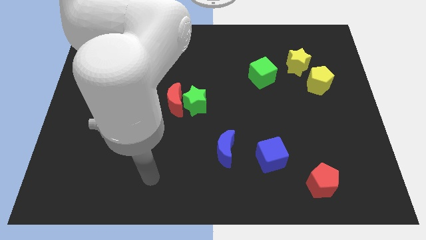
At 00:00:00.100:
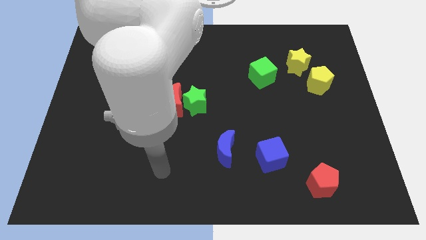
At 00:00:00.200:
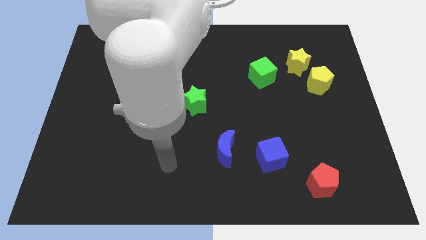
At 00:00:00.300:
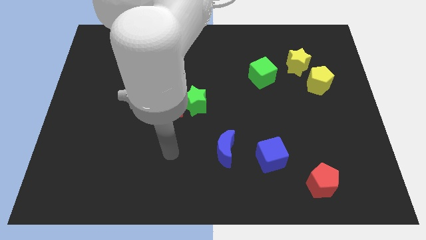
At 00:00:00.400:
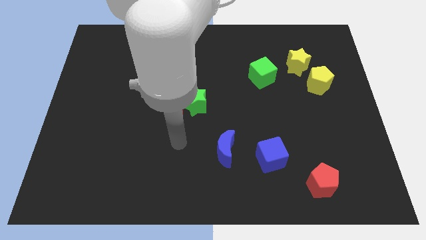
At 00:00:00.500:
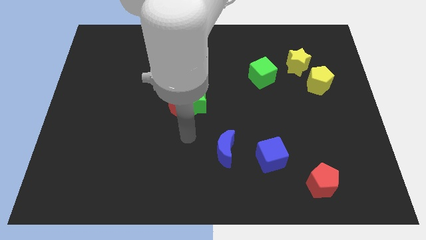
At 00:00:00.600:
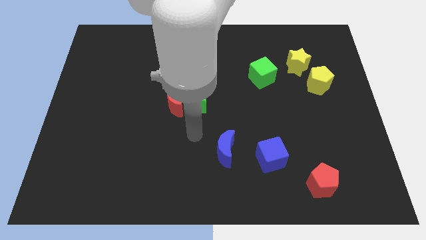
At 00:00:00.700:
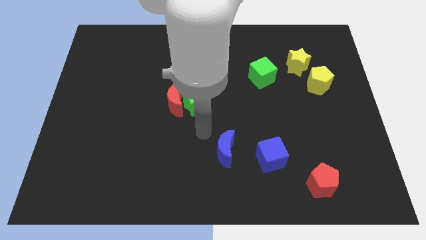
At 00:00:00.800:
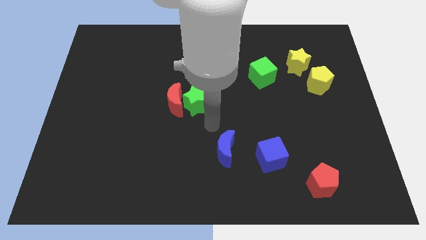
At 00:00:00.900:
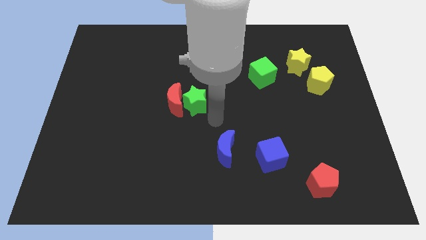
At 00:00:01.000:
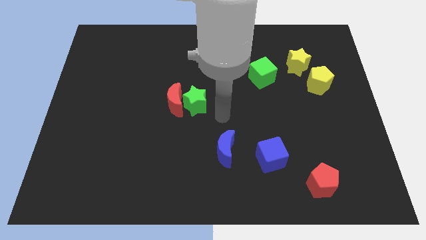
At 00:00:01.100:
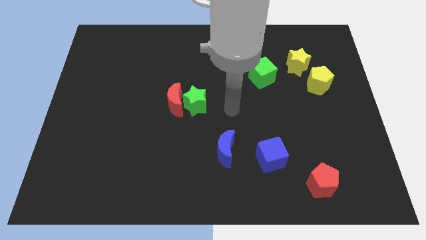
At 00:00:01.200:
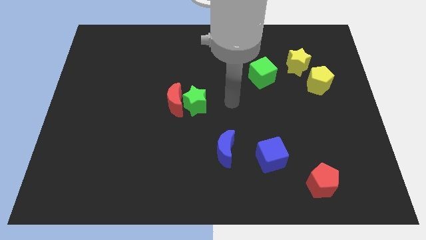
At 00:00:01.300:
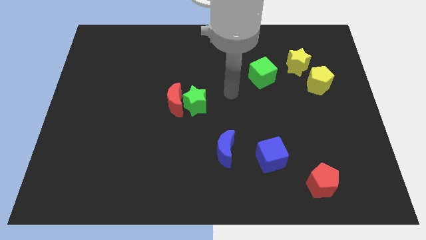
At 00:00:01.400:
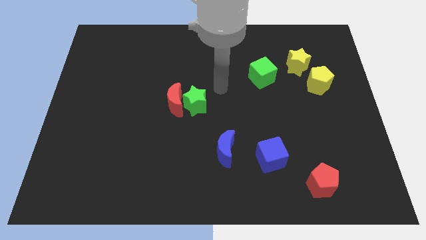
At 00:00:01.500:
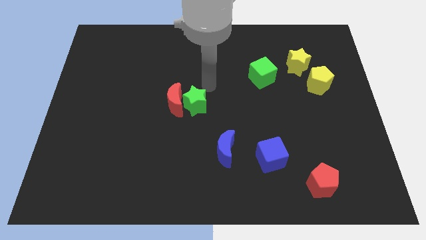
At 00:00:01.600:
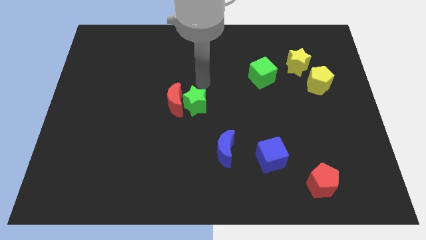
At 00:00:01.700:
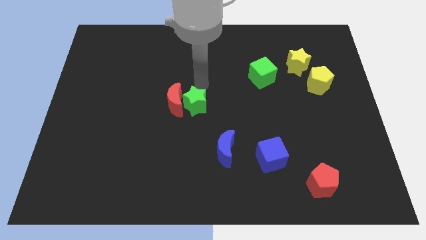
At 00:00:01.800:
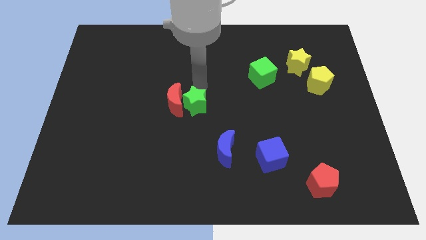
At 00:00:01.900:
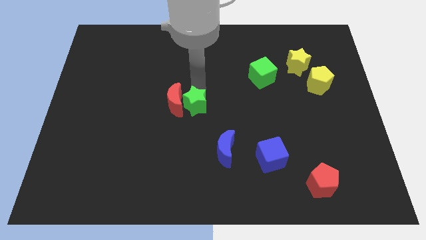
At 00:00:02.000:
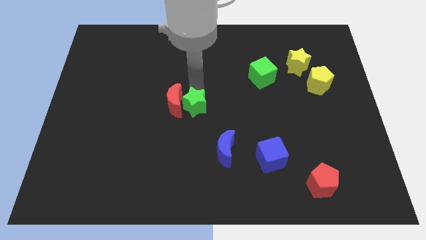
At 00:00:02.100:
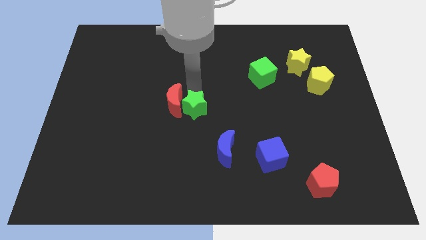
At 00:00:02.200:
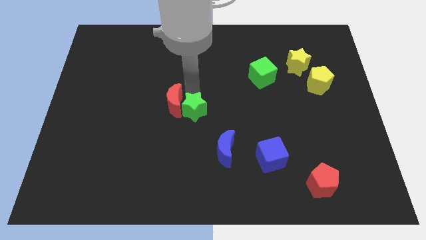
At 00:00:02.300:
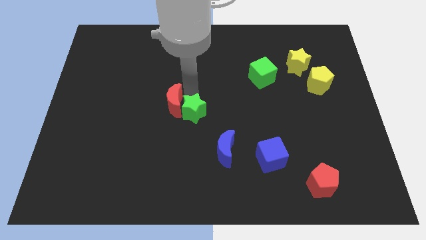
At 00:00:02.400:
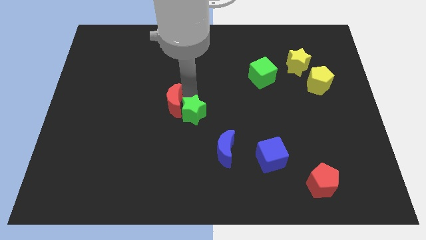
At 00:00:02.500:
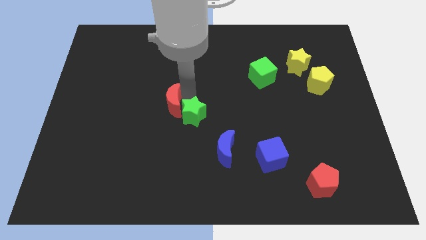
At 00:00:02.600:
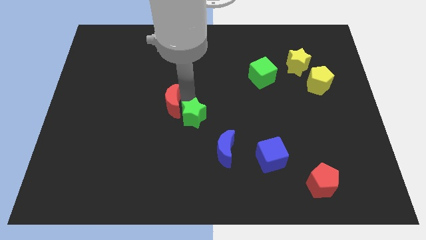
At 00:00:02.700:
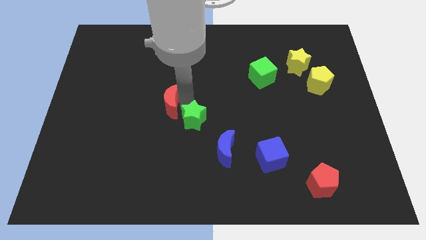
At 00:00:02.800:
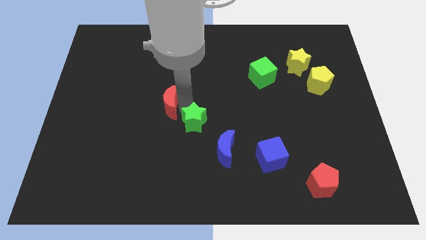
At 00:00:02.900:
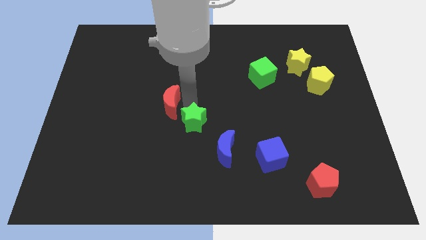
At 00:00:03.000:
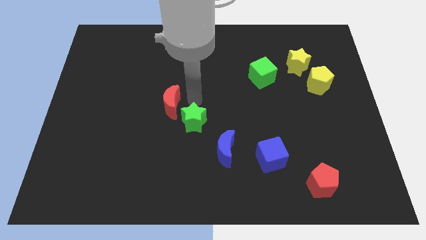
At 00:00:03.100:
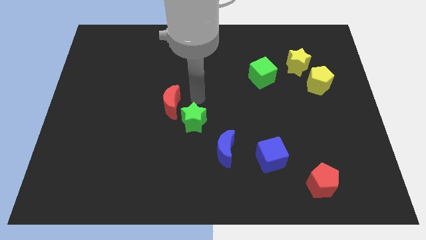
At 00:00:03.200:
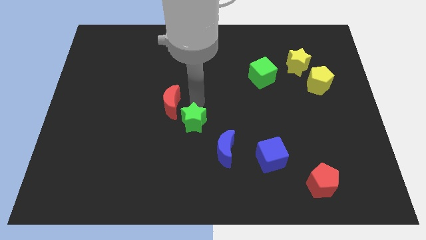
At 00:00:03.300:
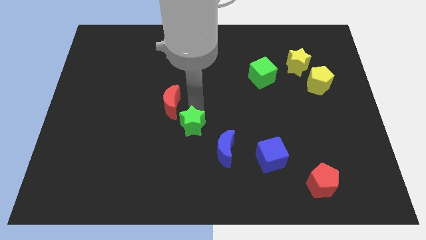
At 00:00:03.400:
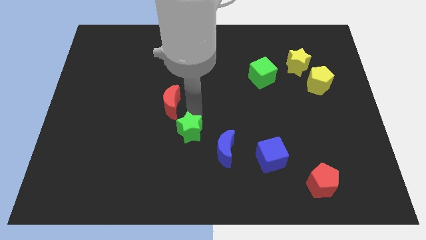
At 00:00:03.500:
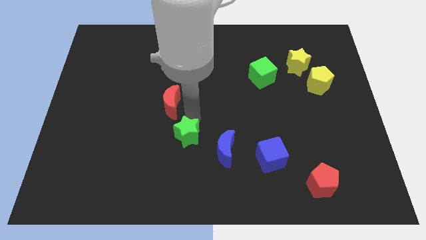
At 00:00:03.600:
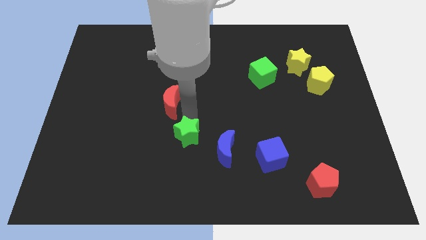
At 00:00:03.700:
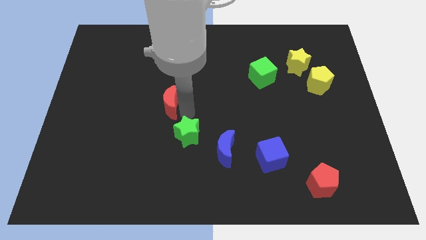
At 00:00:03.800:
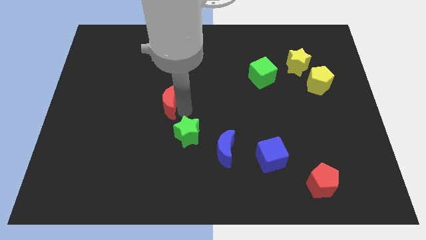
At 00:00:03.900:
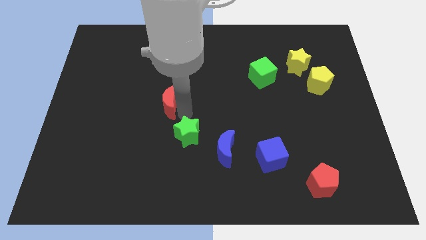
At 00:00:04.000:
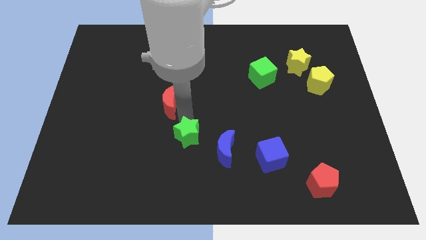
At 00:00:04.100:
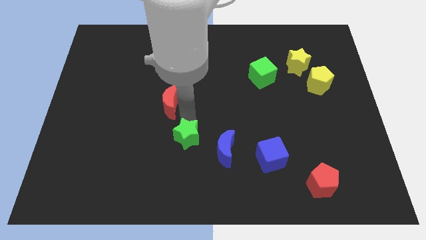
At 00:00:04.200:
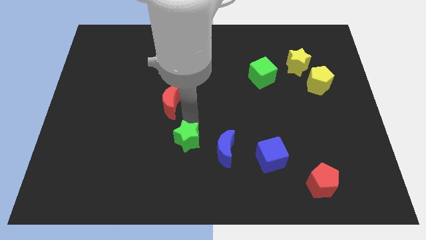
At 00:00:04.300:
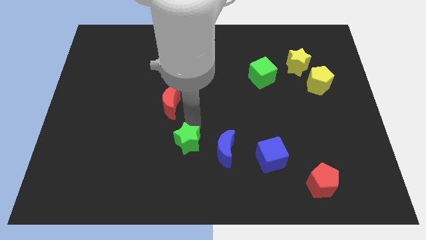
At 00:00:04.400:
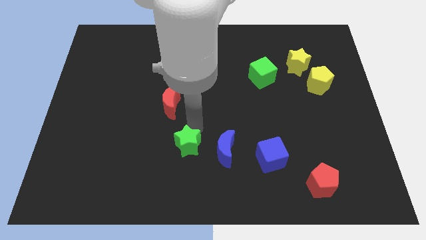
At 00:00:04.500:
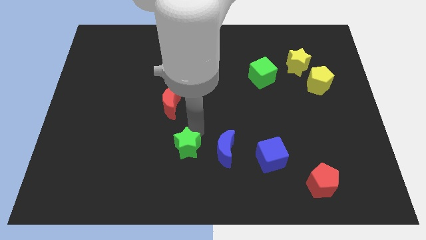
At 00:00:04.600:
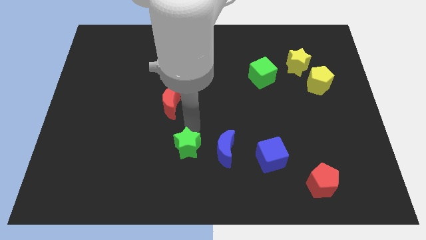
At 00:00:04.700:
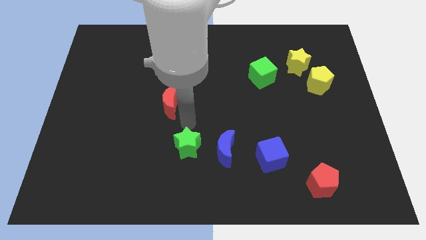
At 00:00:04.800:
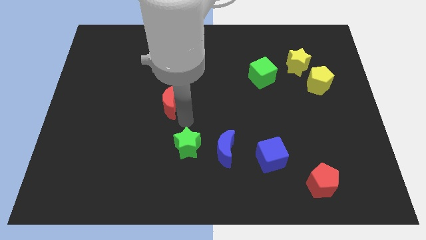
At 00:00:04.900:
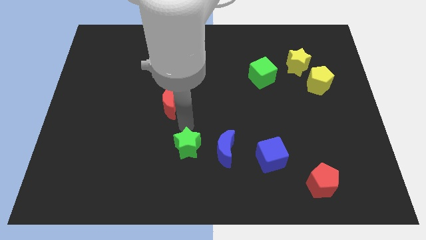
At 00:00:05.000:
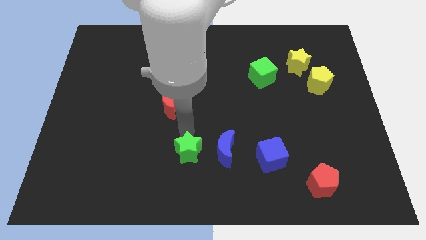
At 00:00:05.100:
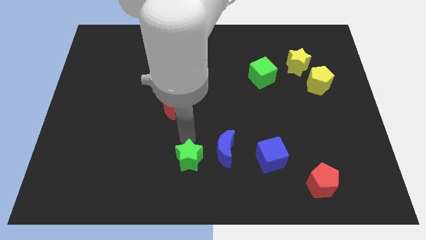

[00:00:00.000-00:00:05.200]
slide the green star to the bottom
